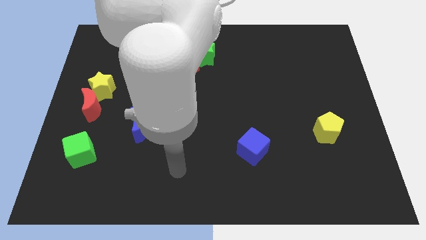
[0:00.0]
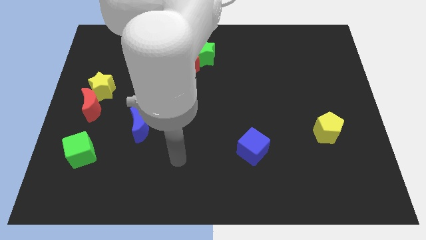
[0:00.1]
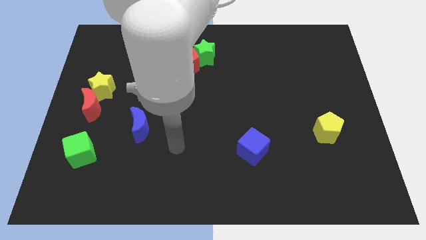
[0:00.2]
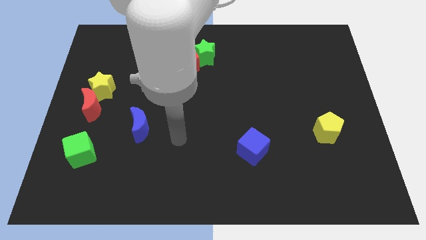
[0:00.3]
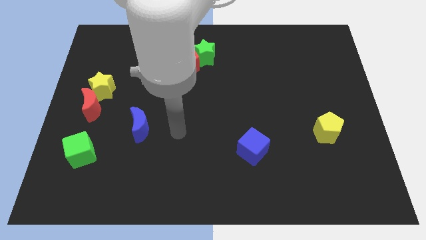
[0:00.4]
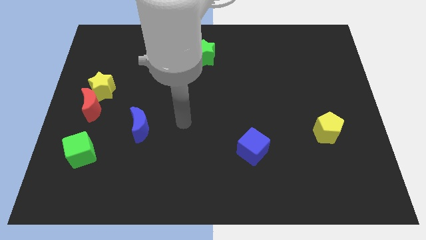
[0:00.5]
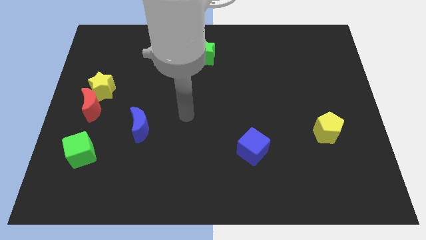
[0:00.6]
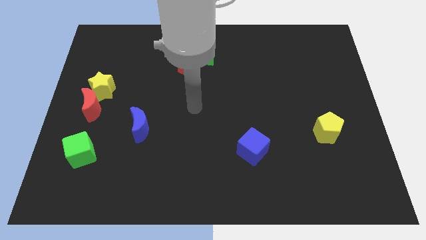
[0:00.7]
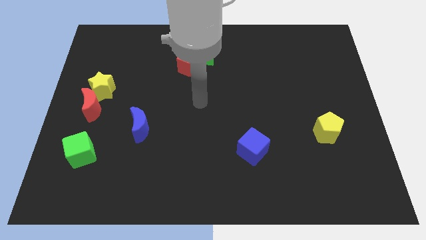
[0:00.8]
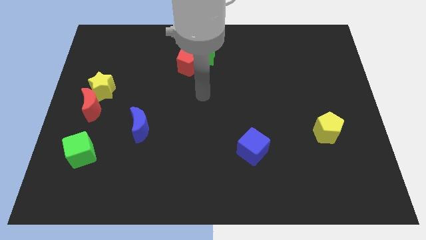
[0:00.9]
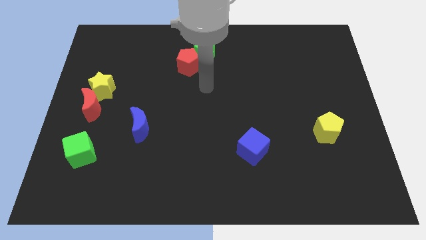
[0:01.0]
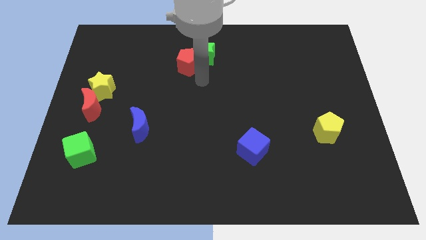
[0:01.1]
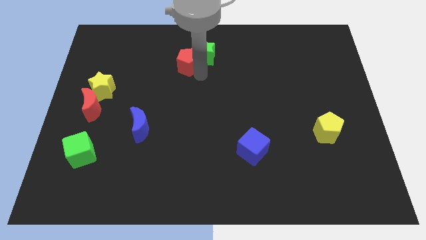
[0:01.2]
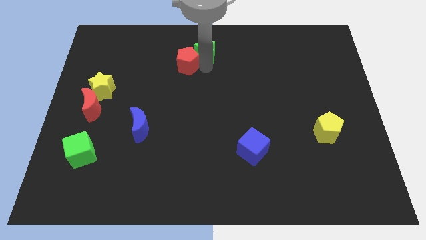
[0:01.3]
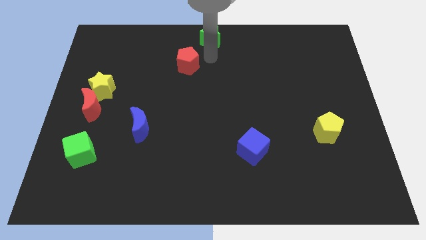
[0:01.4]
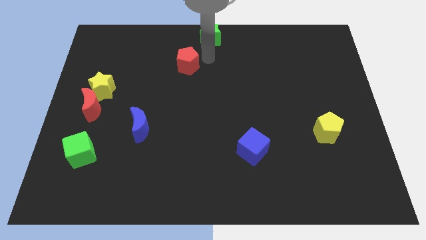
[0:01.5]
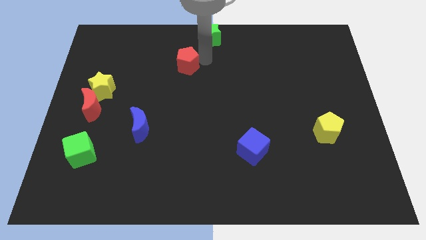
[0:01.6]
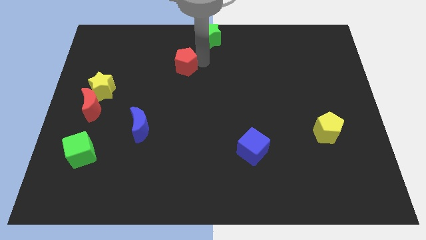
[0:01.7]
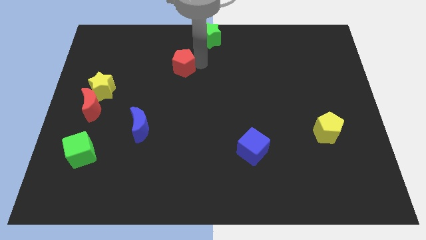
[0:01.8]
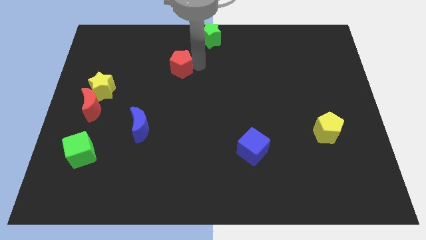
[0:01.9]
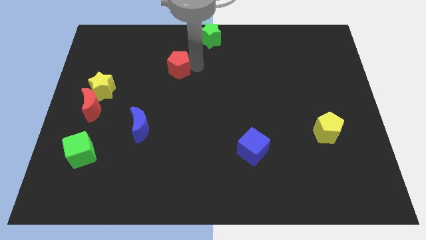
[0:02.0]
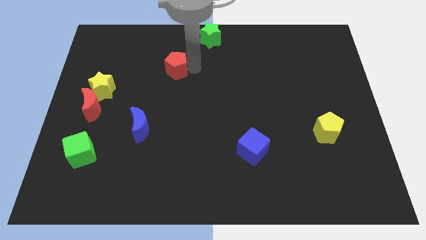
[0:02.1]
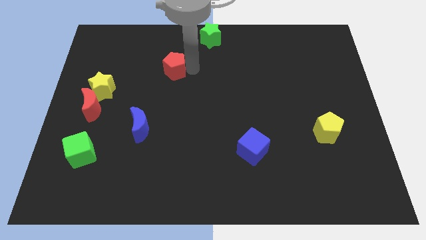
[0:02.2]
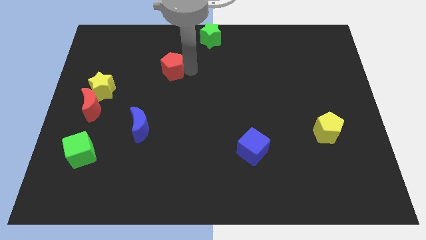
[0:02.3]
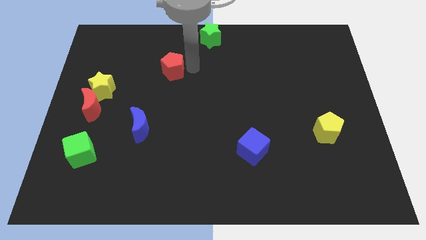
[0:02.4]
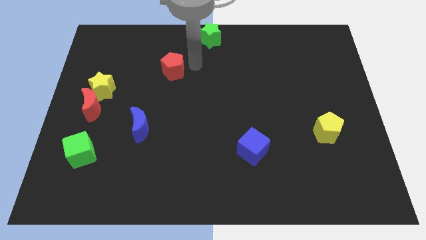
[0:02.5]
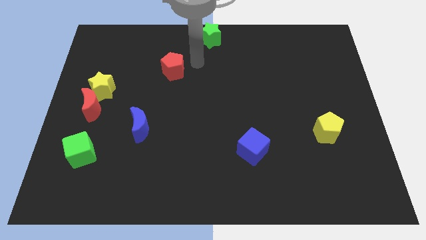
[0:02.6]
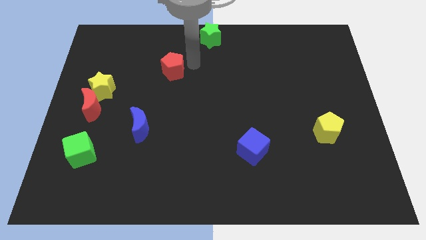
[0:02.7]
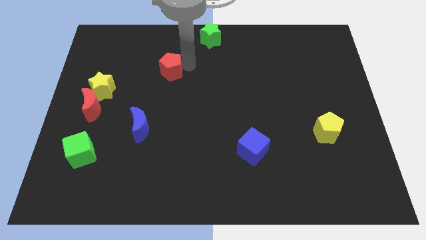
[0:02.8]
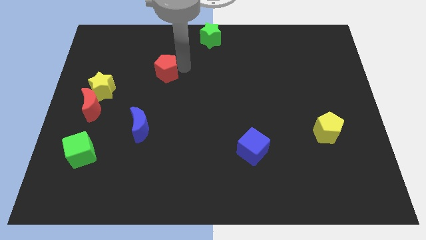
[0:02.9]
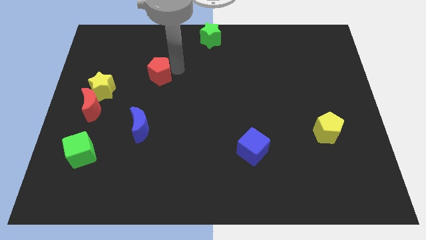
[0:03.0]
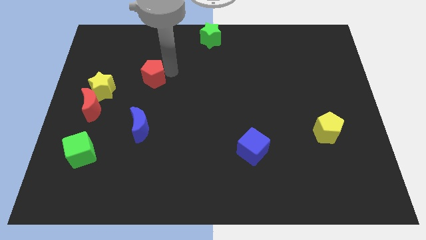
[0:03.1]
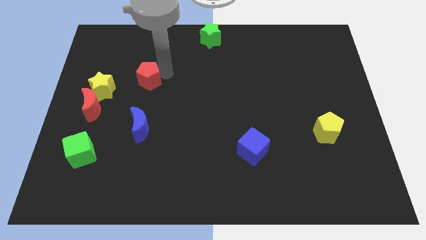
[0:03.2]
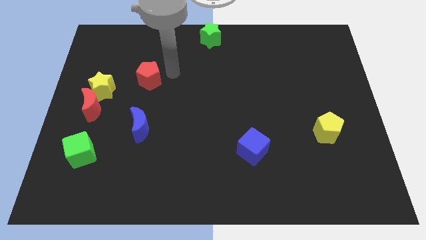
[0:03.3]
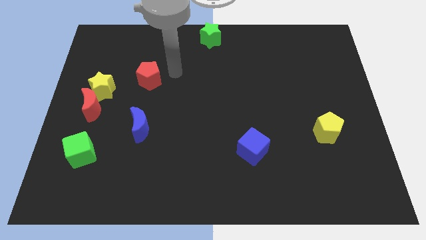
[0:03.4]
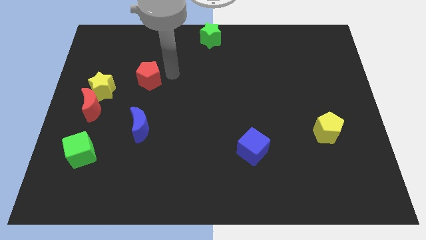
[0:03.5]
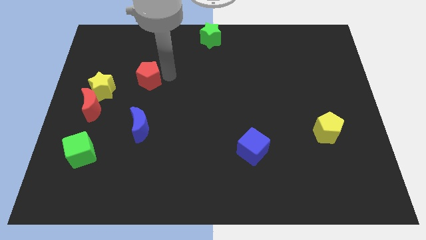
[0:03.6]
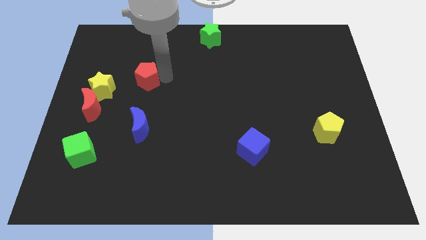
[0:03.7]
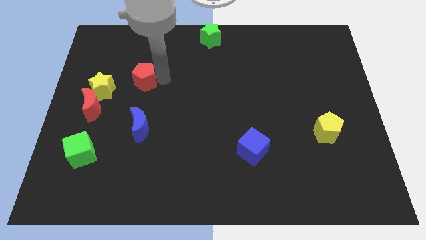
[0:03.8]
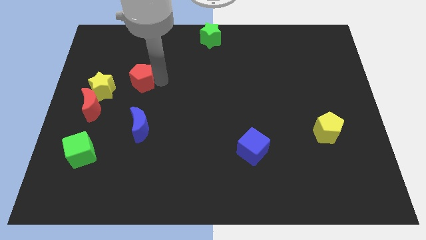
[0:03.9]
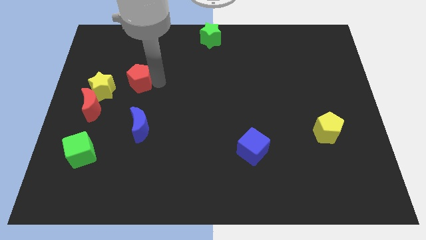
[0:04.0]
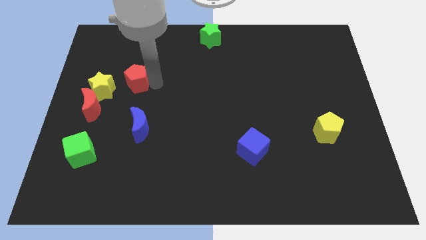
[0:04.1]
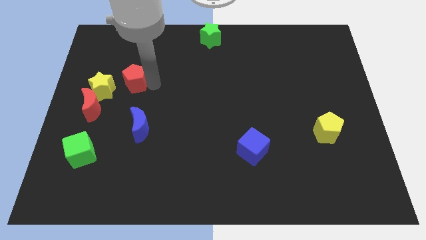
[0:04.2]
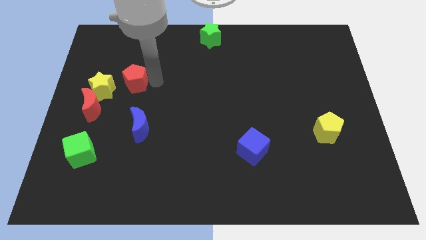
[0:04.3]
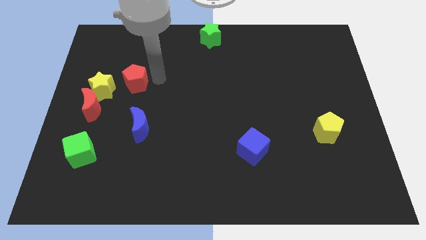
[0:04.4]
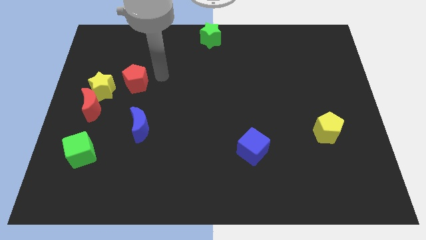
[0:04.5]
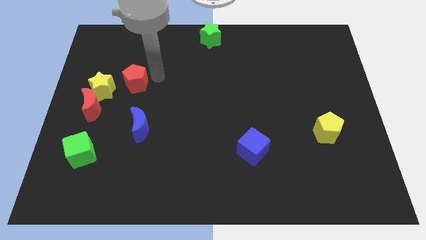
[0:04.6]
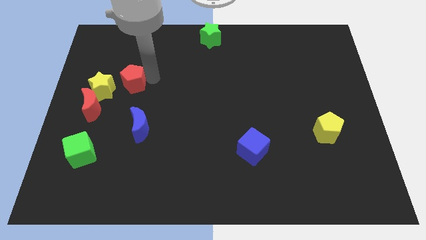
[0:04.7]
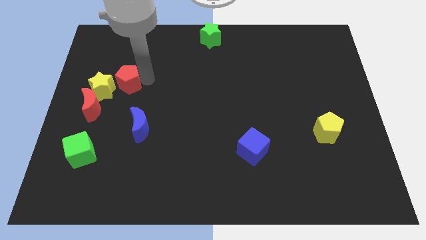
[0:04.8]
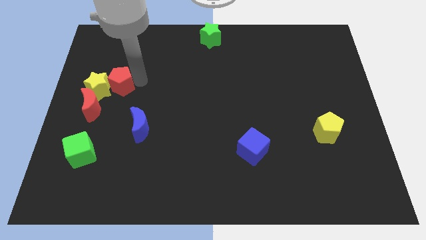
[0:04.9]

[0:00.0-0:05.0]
move the red pentagon next to the yellow star

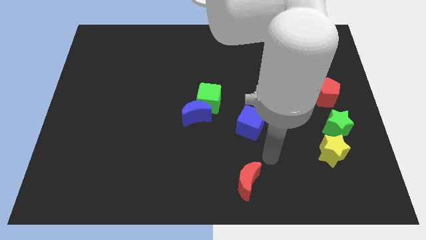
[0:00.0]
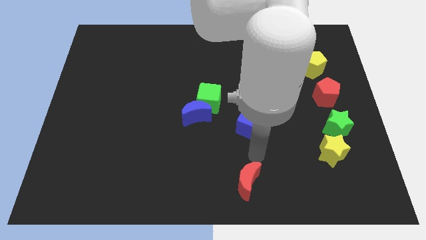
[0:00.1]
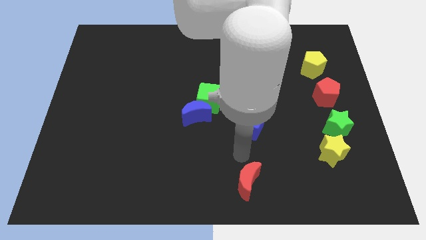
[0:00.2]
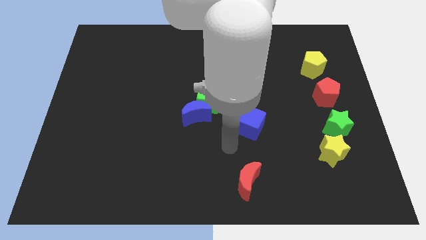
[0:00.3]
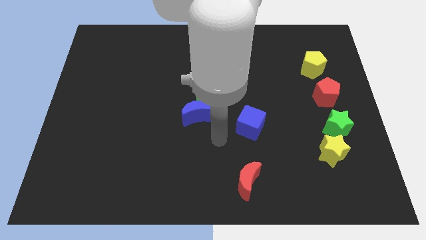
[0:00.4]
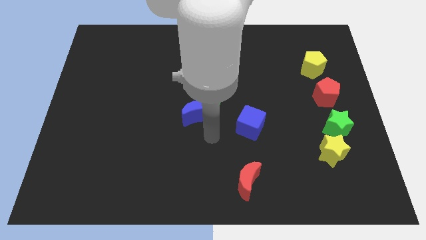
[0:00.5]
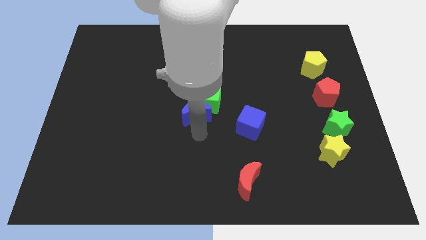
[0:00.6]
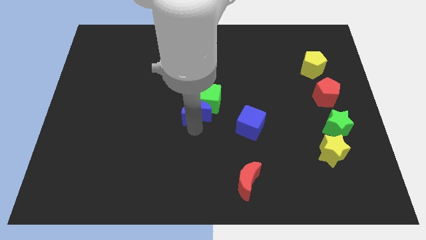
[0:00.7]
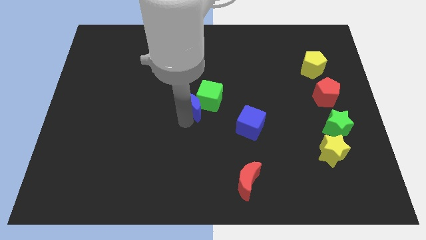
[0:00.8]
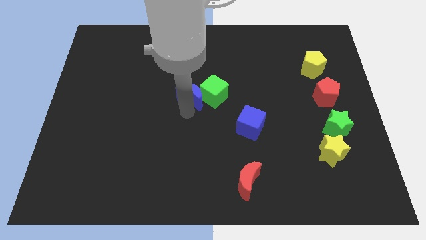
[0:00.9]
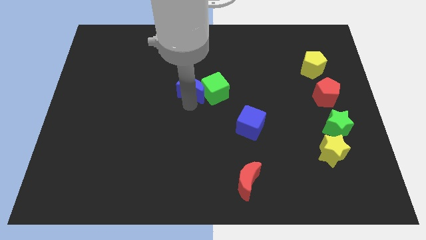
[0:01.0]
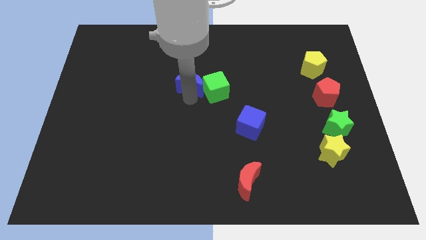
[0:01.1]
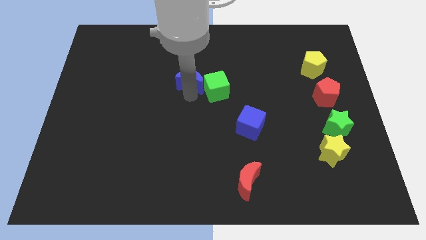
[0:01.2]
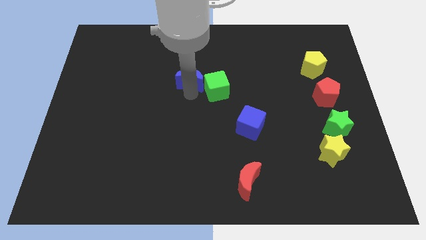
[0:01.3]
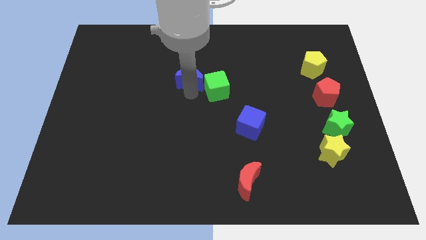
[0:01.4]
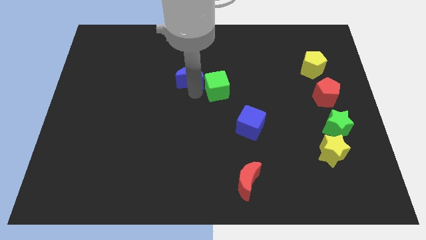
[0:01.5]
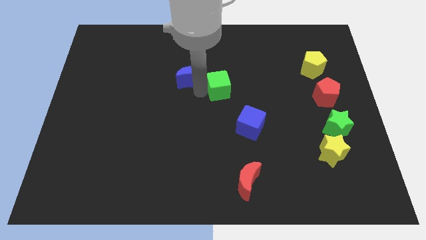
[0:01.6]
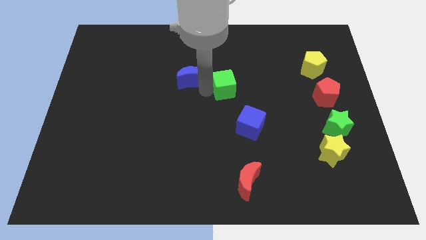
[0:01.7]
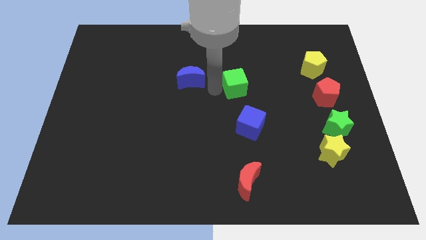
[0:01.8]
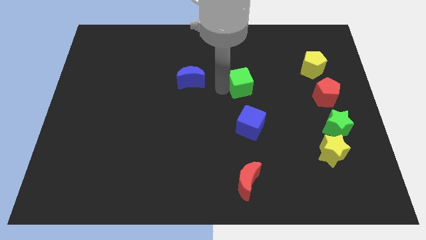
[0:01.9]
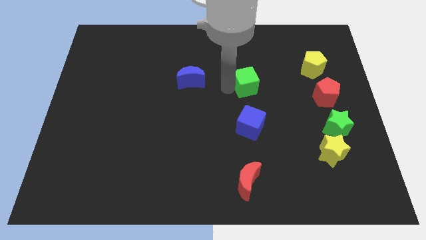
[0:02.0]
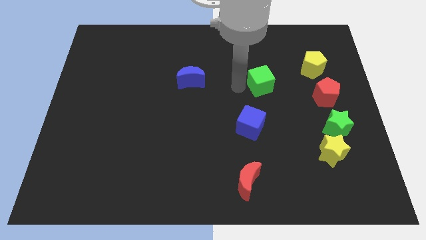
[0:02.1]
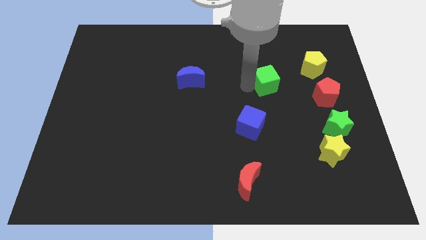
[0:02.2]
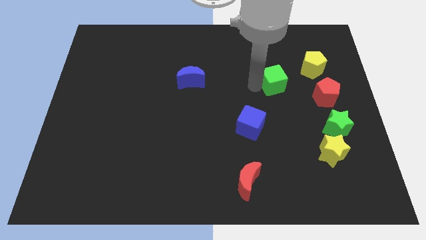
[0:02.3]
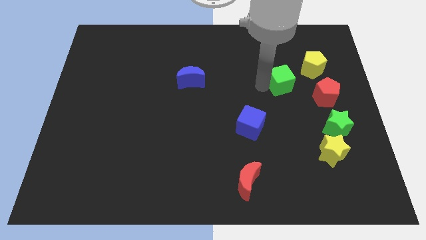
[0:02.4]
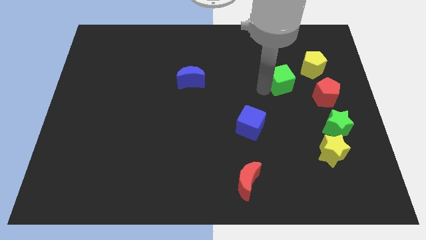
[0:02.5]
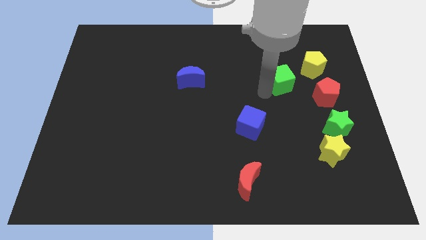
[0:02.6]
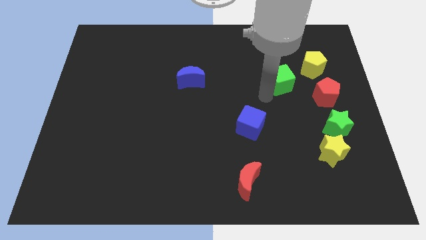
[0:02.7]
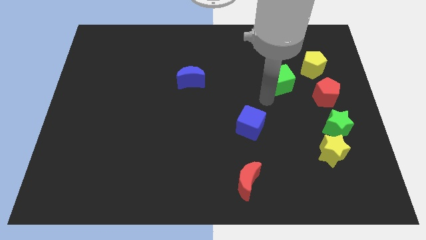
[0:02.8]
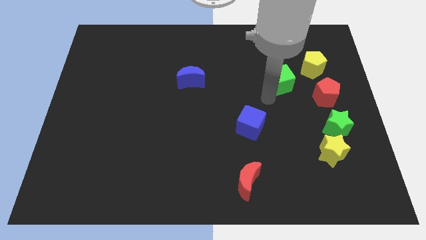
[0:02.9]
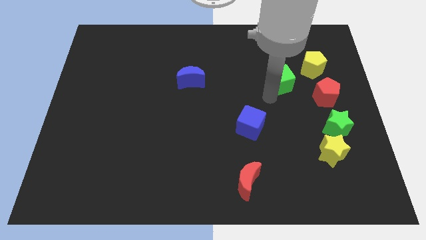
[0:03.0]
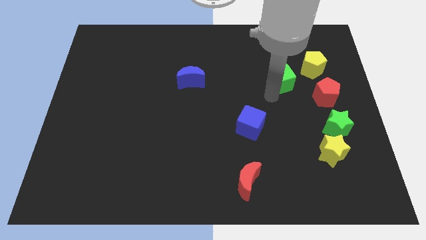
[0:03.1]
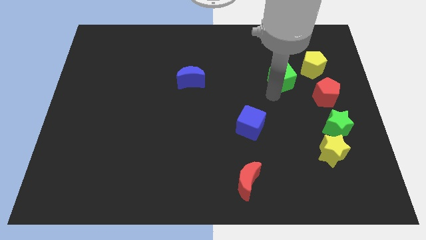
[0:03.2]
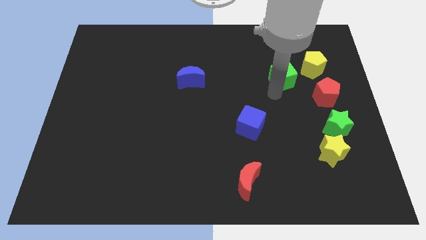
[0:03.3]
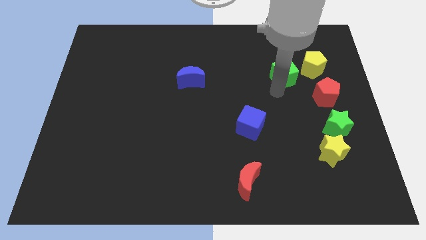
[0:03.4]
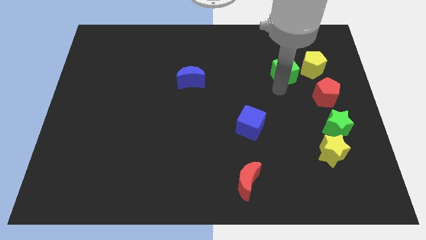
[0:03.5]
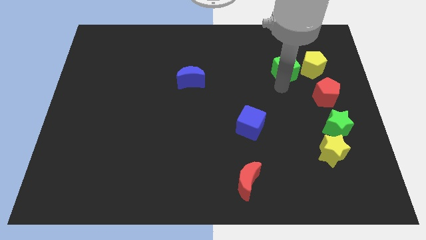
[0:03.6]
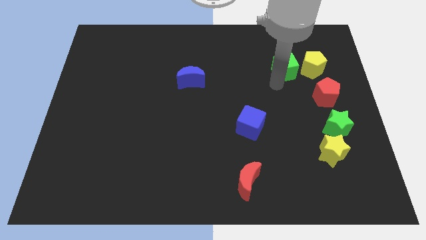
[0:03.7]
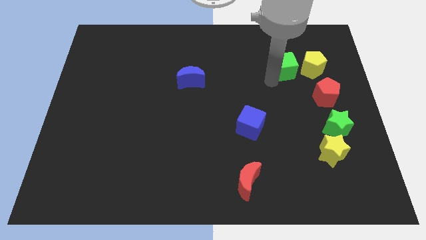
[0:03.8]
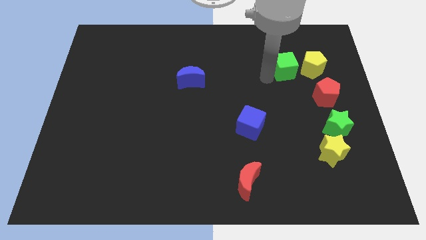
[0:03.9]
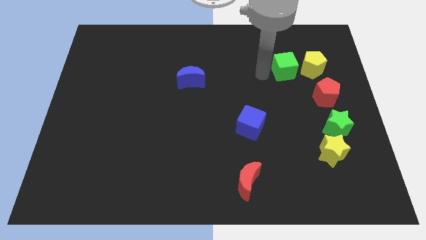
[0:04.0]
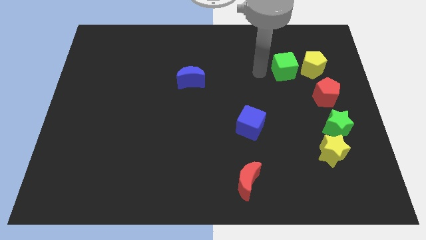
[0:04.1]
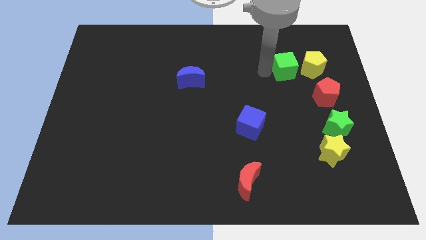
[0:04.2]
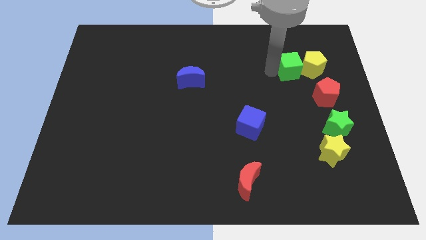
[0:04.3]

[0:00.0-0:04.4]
slide the green cube close to the yellow pentagon
